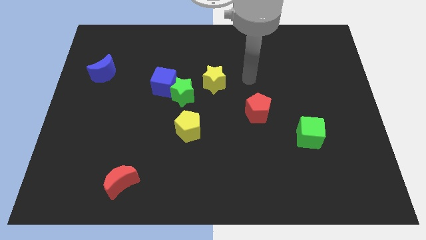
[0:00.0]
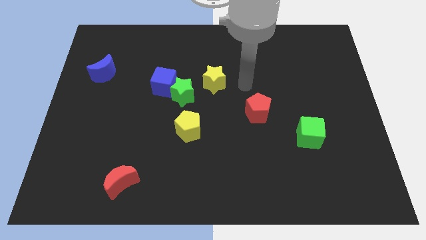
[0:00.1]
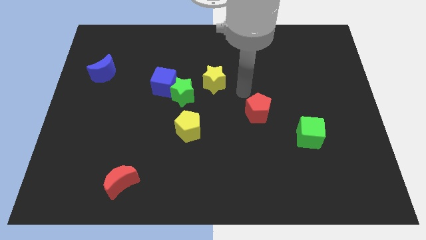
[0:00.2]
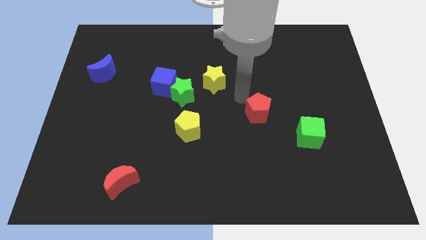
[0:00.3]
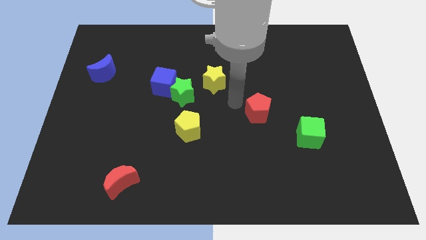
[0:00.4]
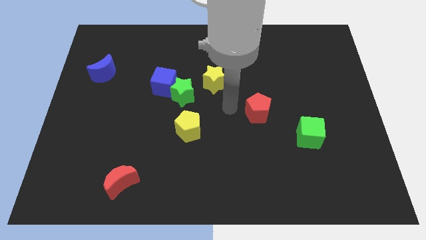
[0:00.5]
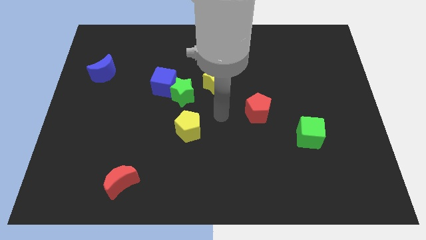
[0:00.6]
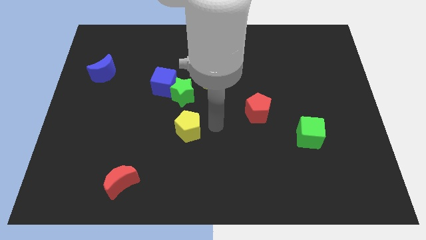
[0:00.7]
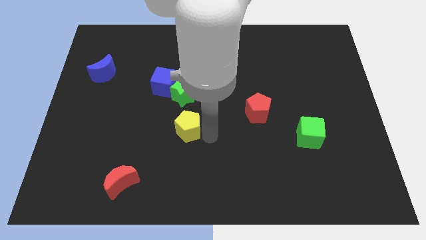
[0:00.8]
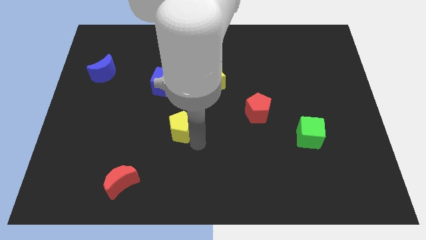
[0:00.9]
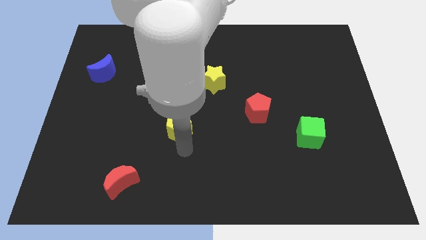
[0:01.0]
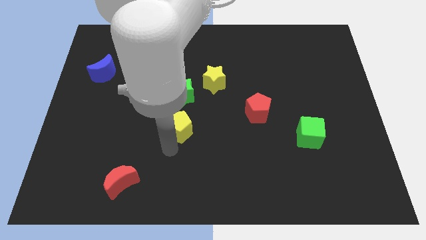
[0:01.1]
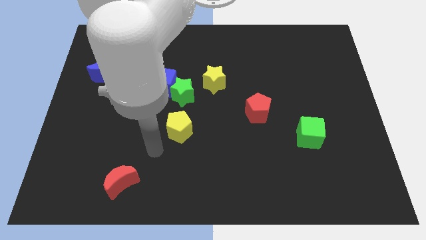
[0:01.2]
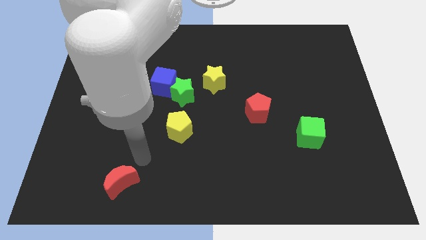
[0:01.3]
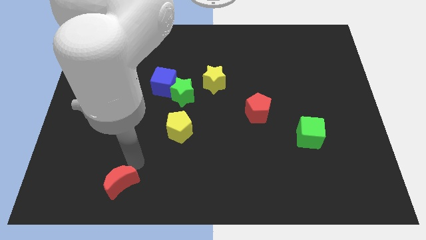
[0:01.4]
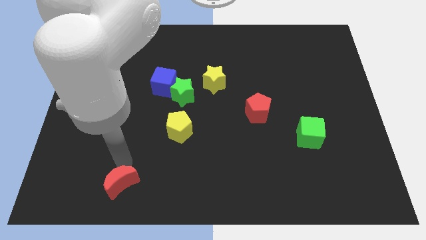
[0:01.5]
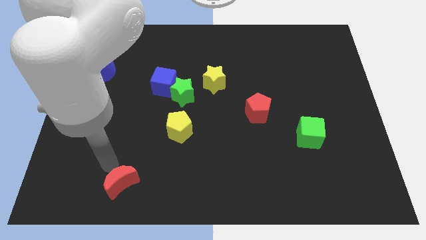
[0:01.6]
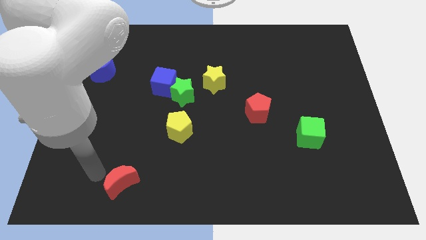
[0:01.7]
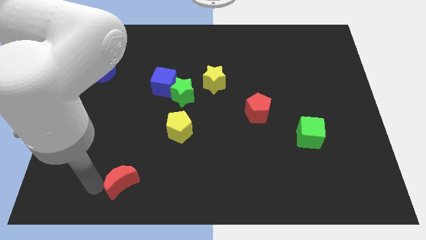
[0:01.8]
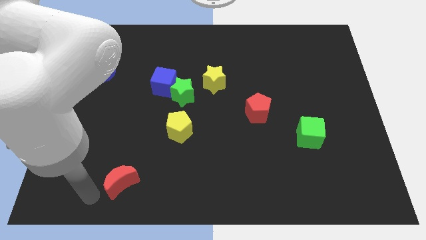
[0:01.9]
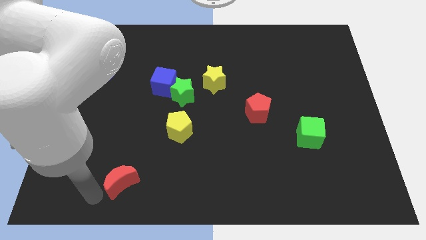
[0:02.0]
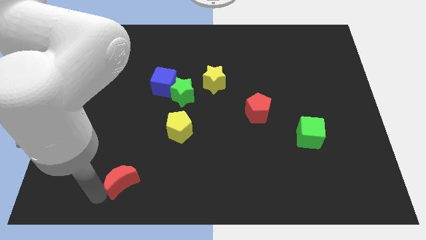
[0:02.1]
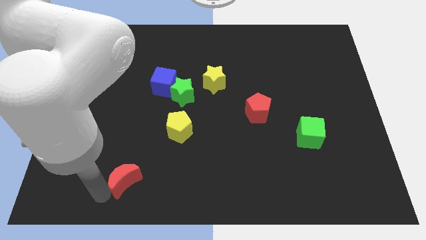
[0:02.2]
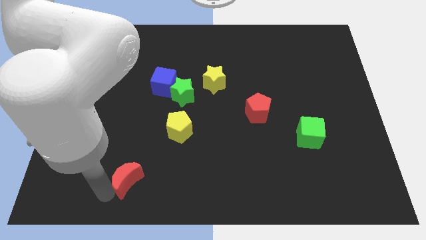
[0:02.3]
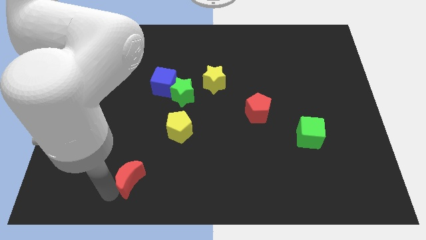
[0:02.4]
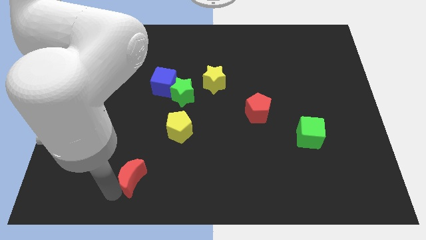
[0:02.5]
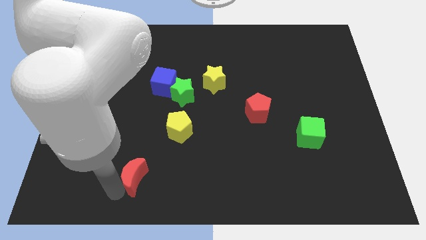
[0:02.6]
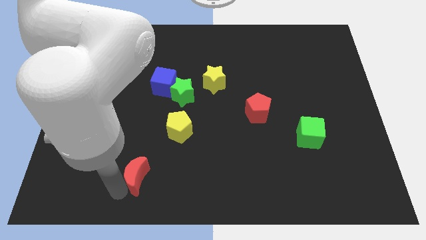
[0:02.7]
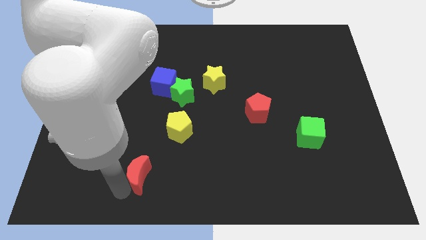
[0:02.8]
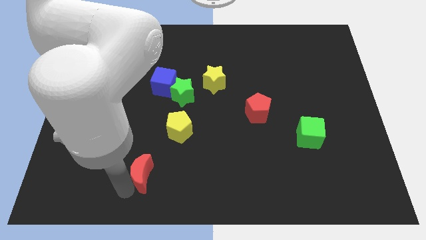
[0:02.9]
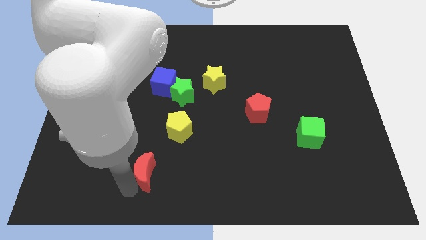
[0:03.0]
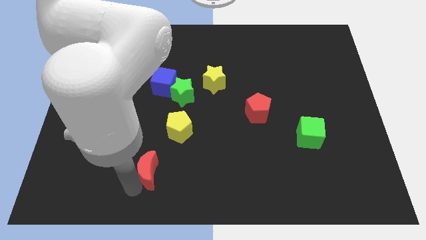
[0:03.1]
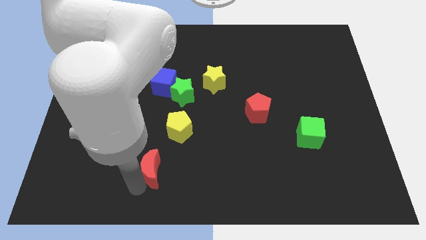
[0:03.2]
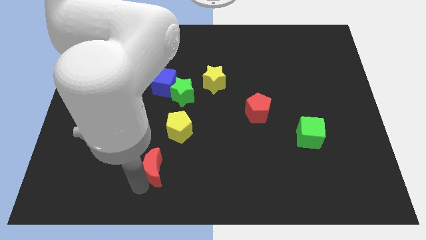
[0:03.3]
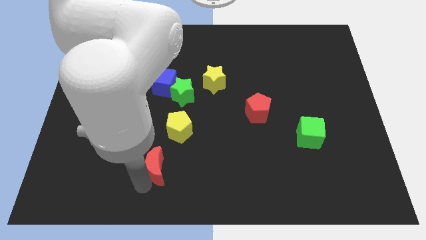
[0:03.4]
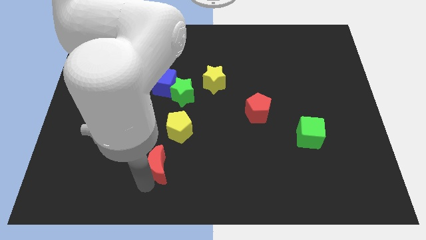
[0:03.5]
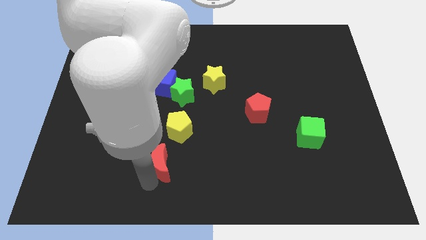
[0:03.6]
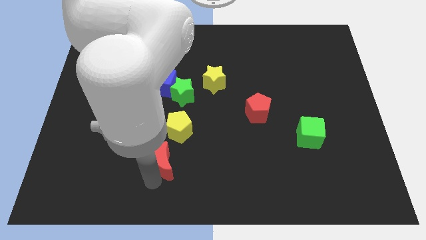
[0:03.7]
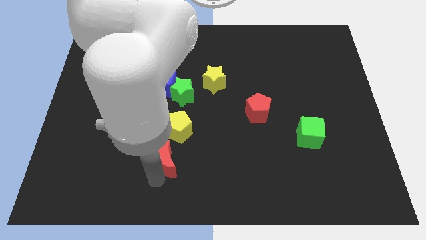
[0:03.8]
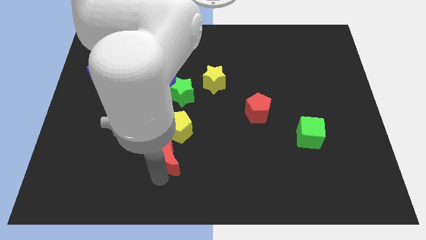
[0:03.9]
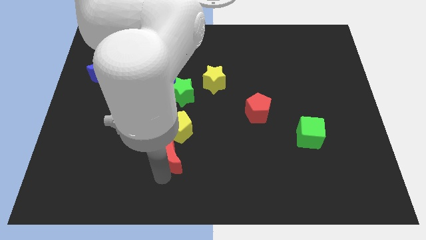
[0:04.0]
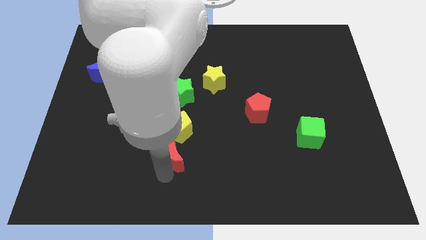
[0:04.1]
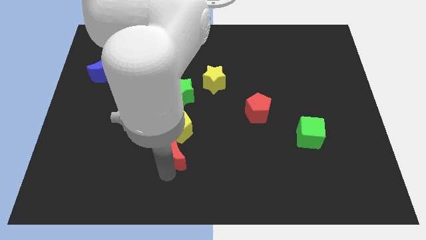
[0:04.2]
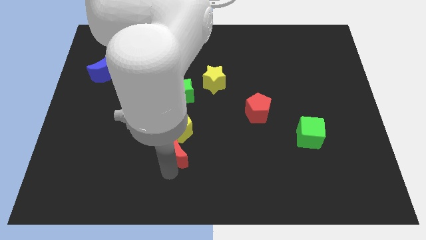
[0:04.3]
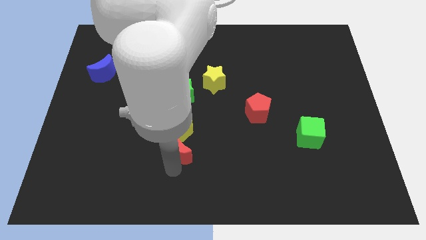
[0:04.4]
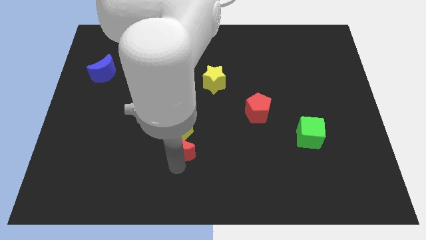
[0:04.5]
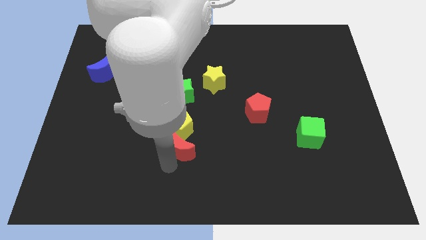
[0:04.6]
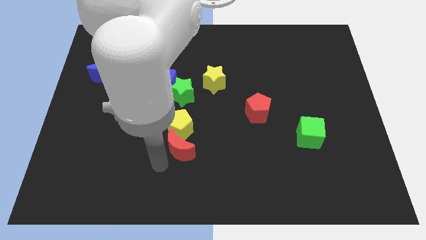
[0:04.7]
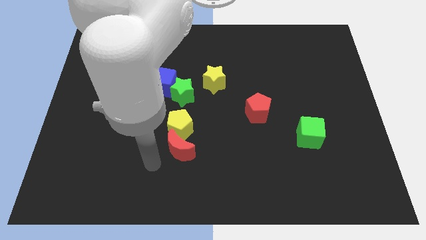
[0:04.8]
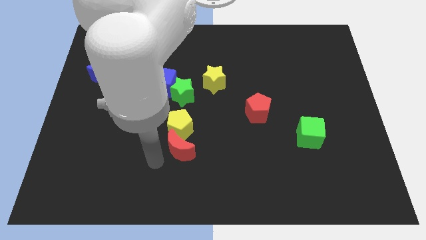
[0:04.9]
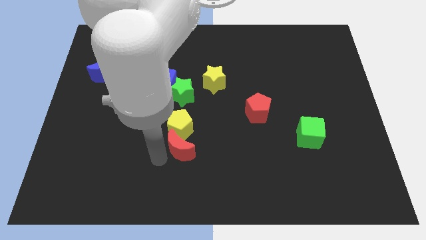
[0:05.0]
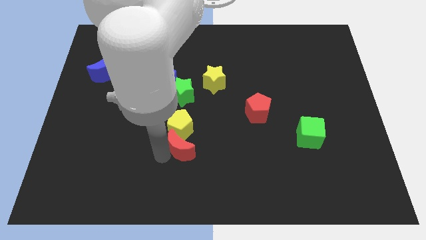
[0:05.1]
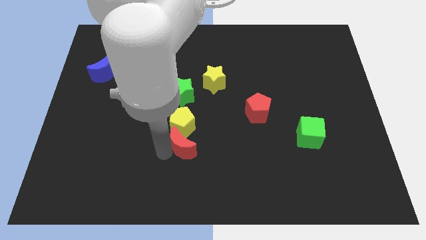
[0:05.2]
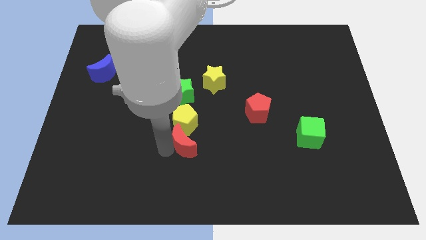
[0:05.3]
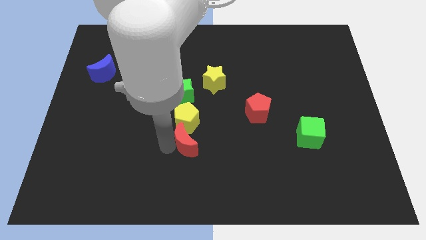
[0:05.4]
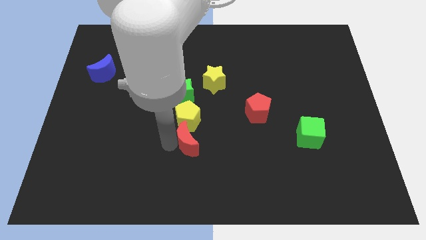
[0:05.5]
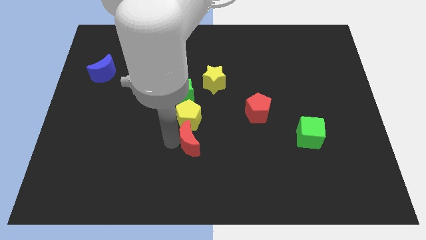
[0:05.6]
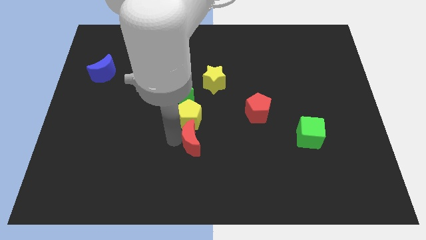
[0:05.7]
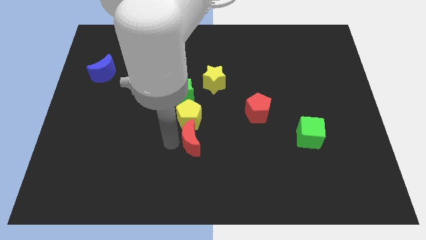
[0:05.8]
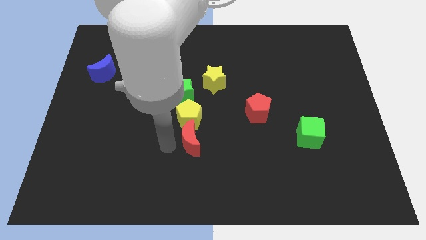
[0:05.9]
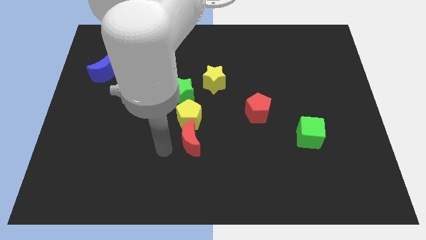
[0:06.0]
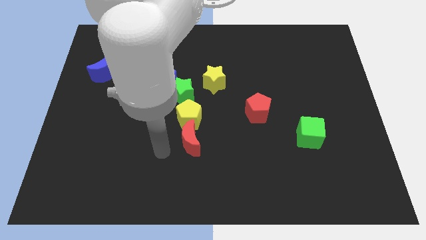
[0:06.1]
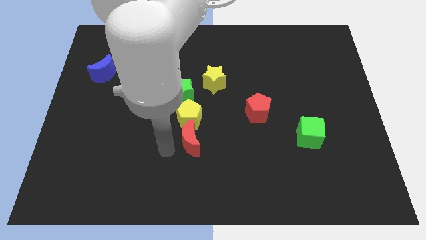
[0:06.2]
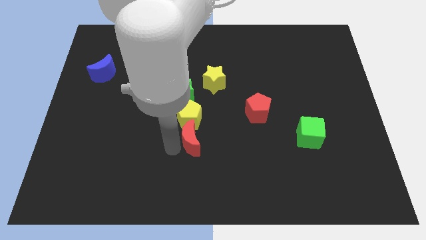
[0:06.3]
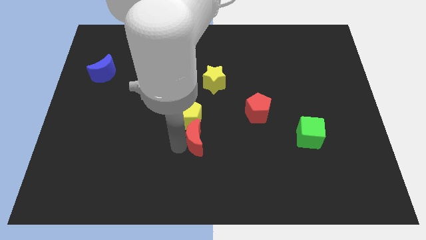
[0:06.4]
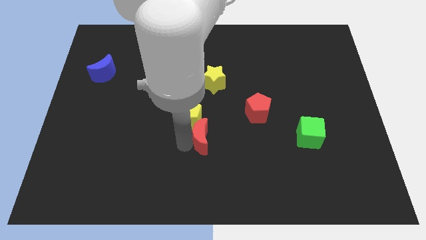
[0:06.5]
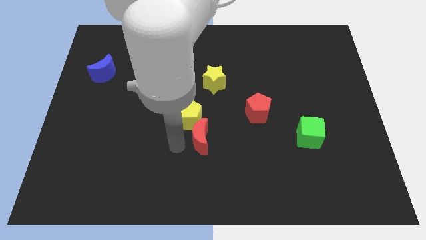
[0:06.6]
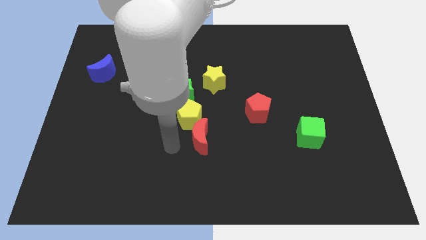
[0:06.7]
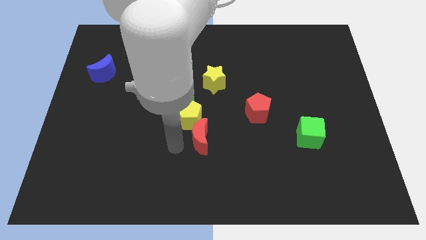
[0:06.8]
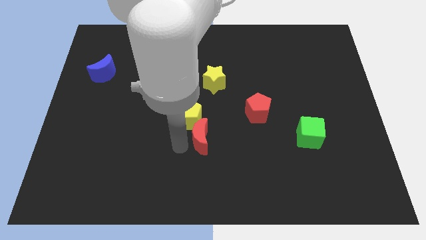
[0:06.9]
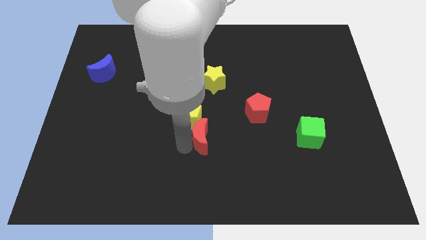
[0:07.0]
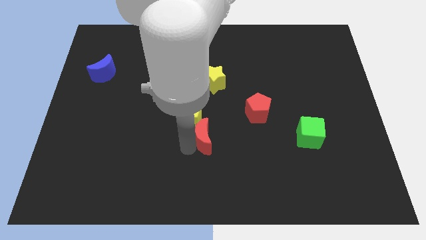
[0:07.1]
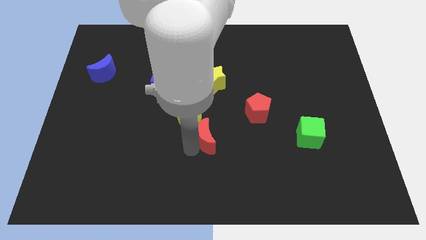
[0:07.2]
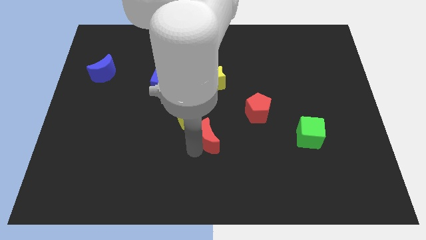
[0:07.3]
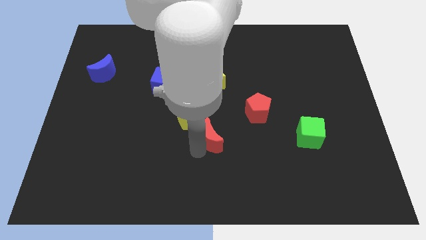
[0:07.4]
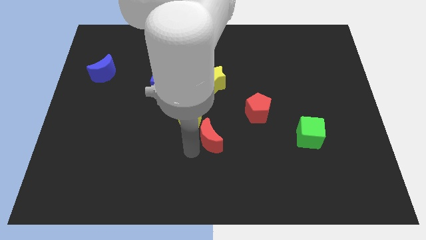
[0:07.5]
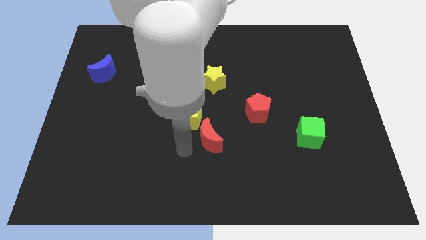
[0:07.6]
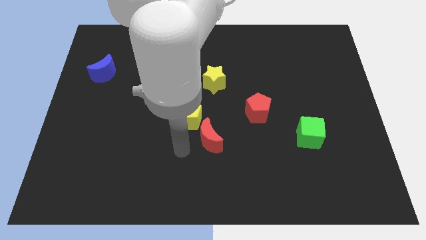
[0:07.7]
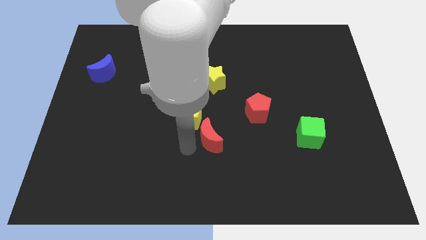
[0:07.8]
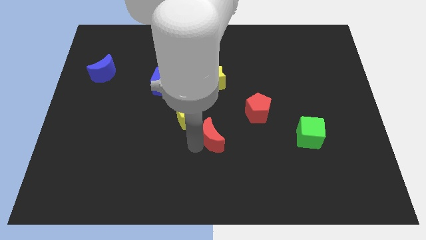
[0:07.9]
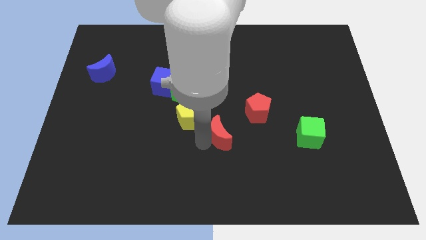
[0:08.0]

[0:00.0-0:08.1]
push the red moon diagonally down and to the left of the red pentagon

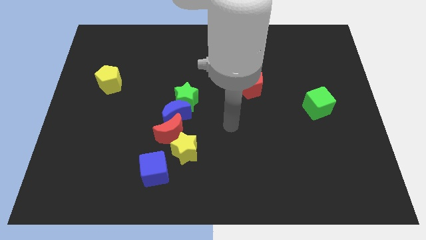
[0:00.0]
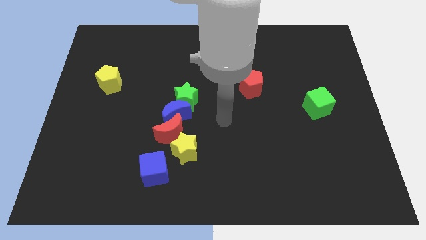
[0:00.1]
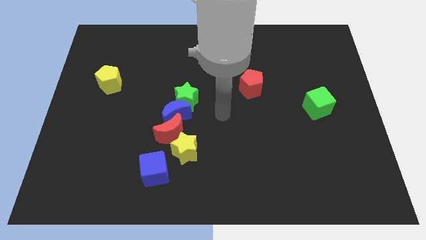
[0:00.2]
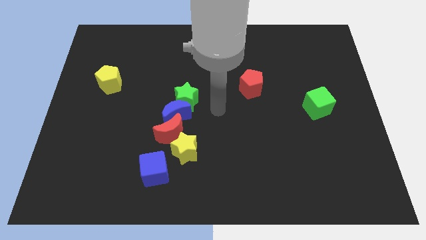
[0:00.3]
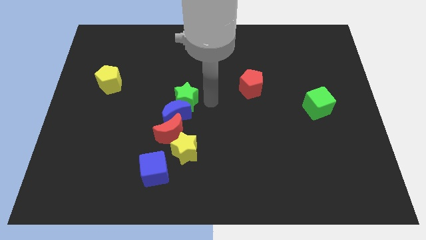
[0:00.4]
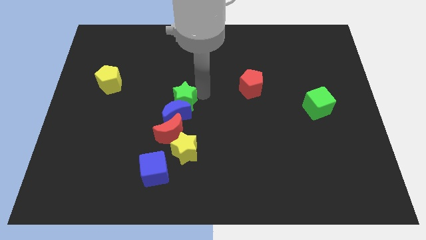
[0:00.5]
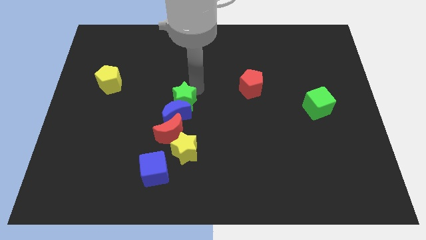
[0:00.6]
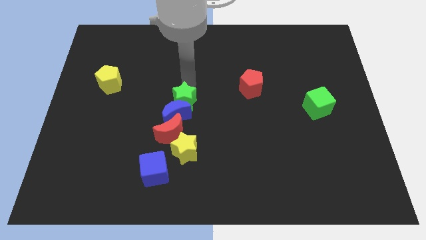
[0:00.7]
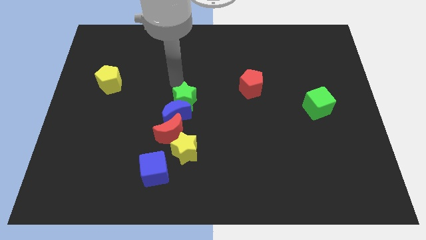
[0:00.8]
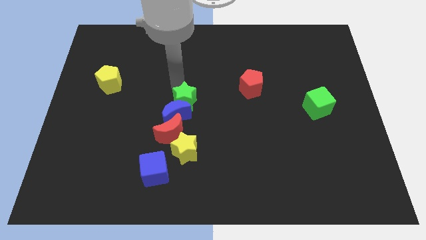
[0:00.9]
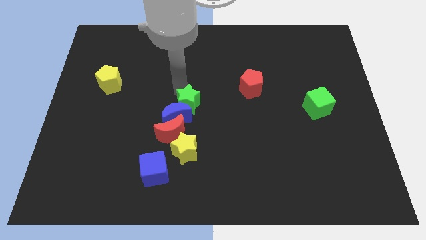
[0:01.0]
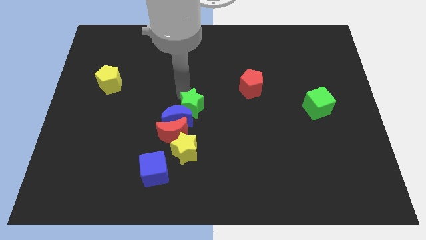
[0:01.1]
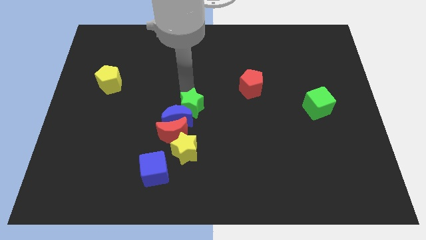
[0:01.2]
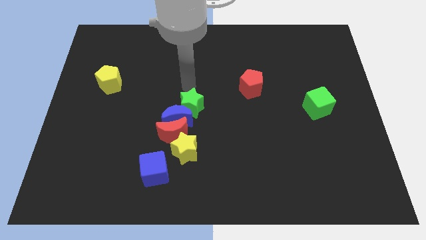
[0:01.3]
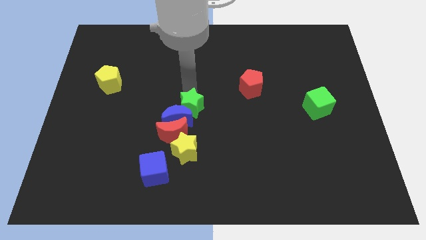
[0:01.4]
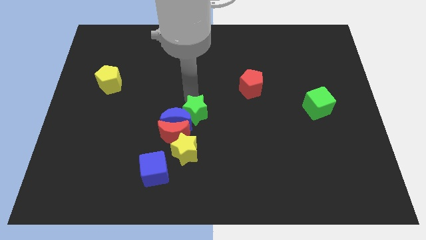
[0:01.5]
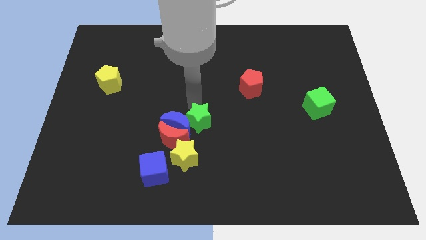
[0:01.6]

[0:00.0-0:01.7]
slide the green star to the bottom right side of the blue moon
